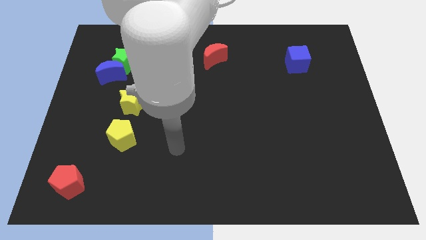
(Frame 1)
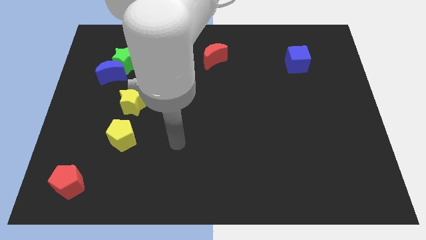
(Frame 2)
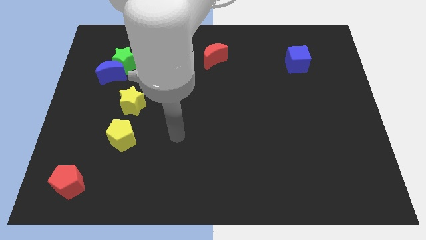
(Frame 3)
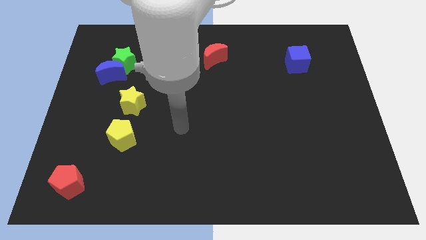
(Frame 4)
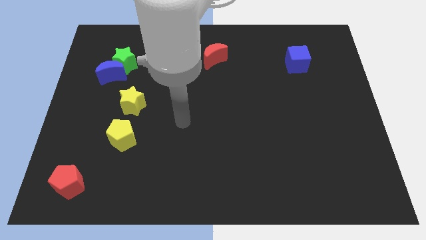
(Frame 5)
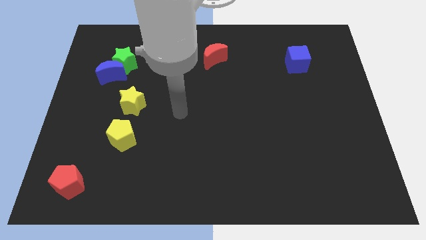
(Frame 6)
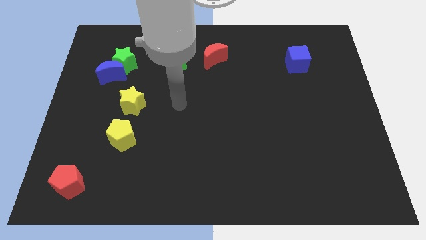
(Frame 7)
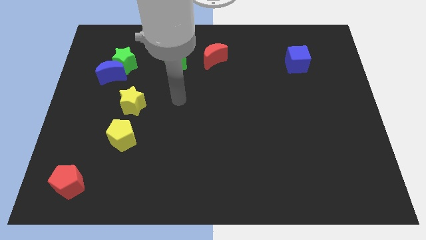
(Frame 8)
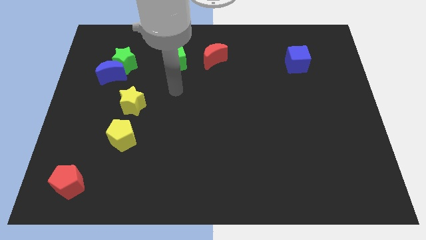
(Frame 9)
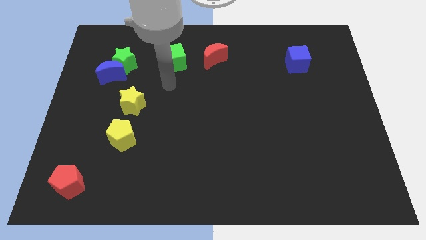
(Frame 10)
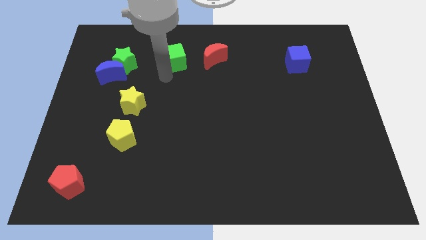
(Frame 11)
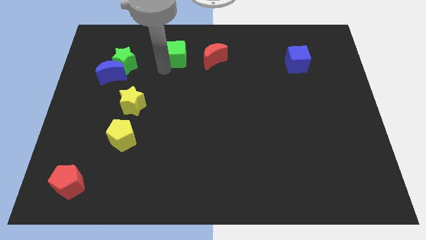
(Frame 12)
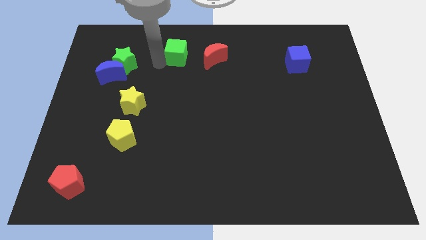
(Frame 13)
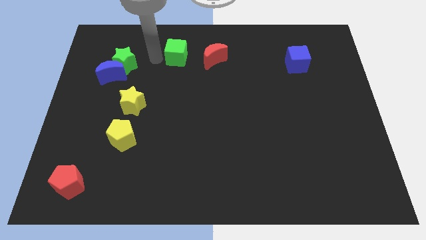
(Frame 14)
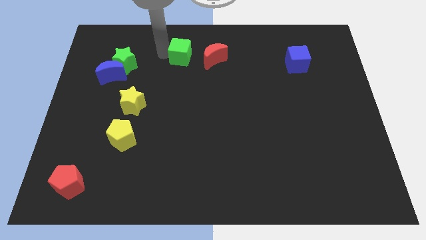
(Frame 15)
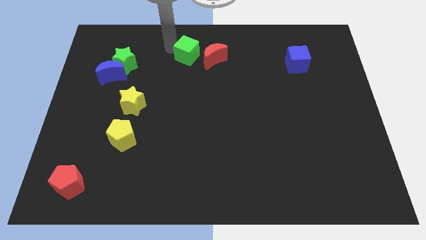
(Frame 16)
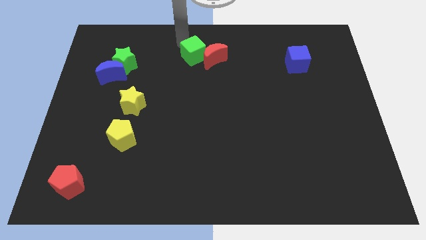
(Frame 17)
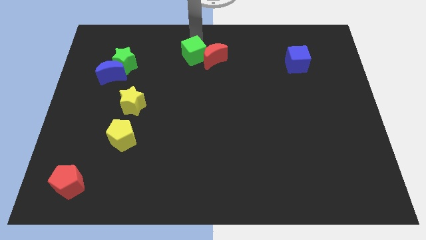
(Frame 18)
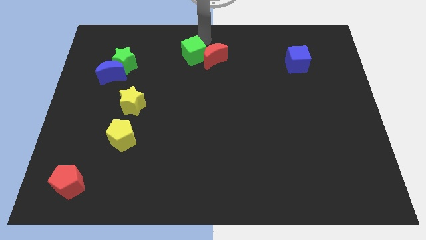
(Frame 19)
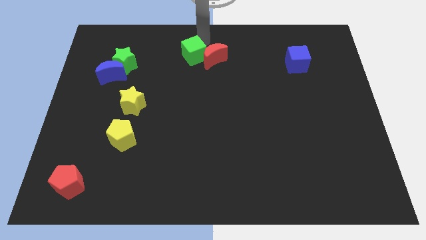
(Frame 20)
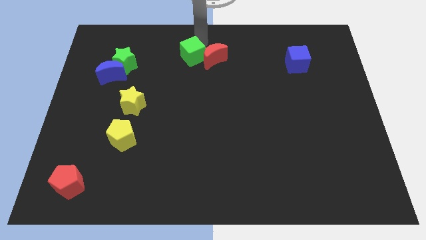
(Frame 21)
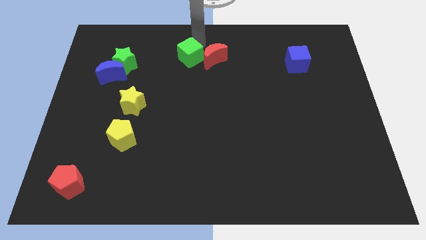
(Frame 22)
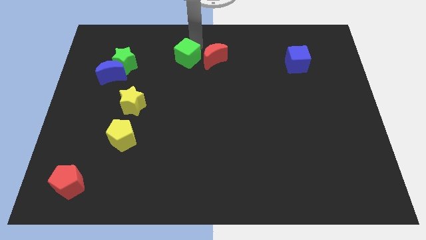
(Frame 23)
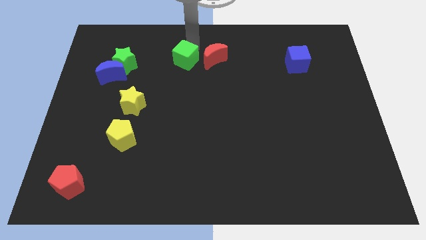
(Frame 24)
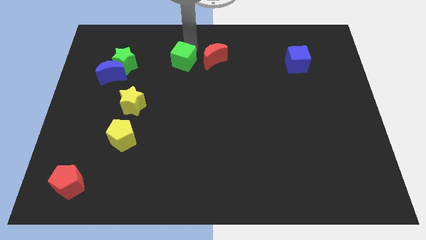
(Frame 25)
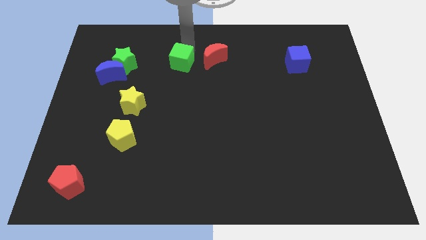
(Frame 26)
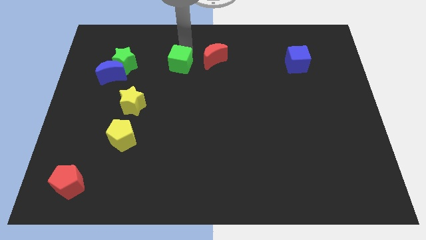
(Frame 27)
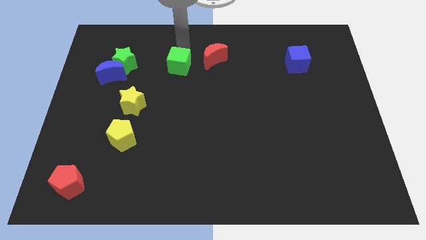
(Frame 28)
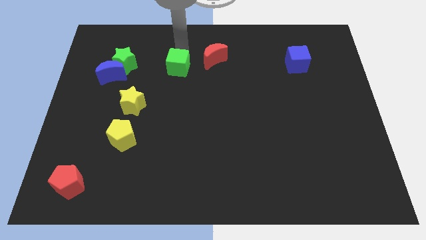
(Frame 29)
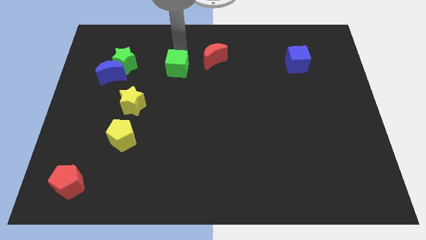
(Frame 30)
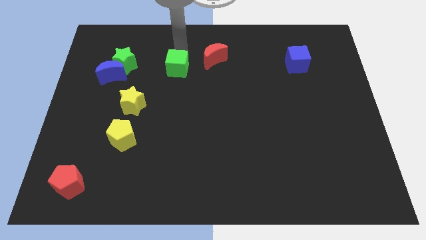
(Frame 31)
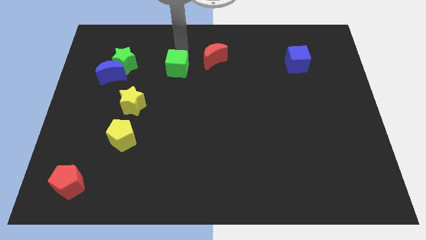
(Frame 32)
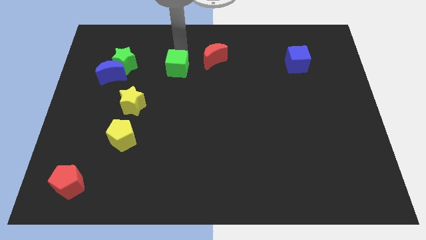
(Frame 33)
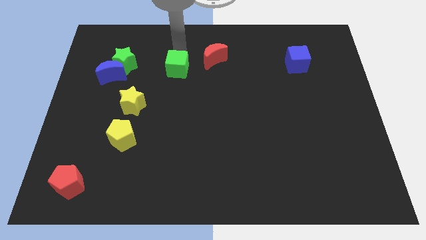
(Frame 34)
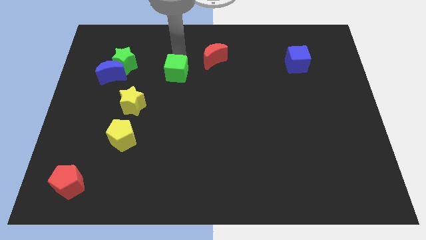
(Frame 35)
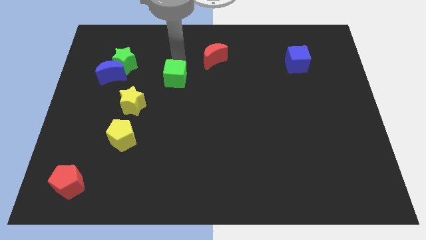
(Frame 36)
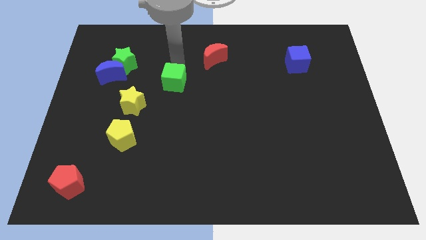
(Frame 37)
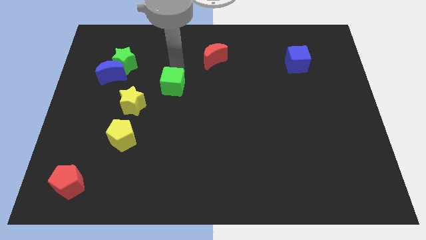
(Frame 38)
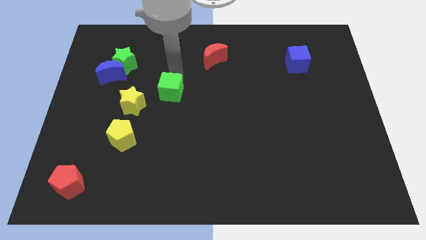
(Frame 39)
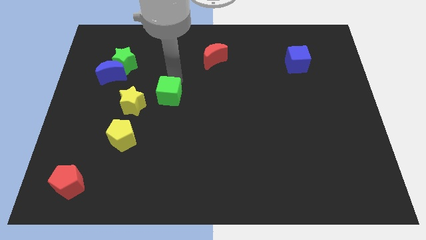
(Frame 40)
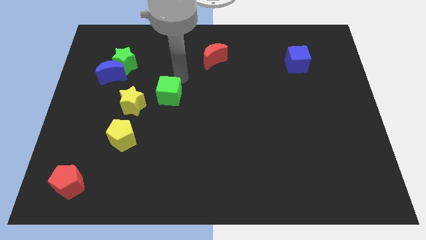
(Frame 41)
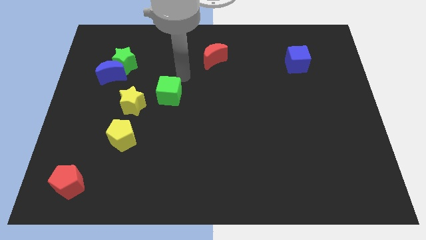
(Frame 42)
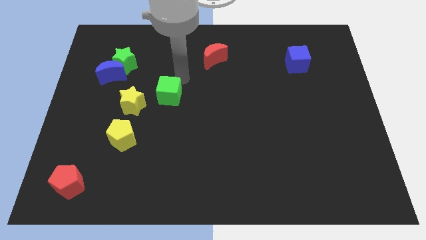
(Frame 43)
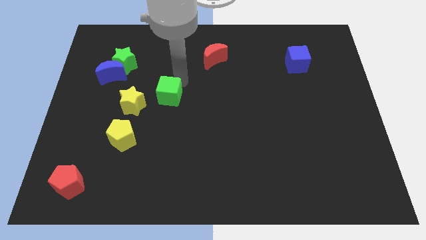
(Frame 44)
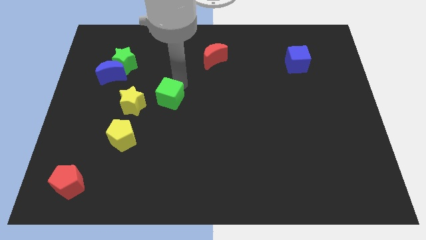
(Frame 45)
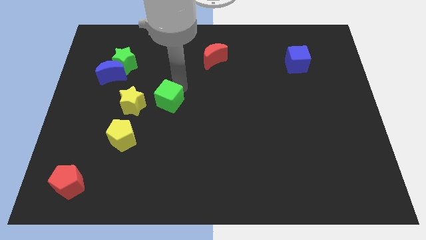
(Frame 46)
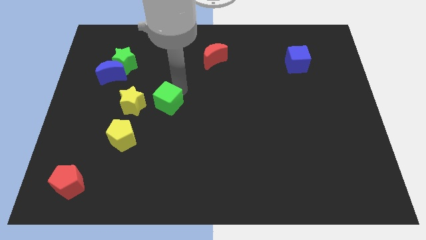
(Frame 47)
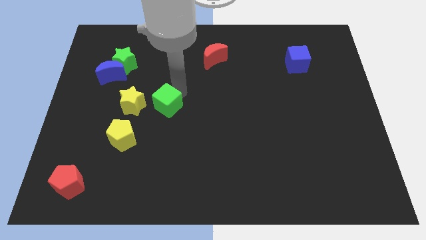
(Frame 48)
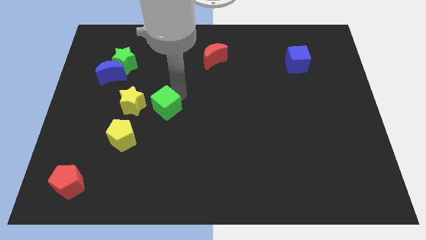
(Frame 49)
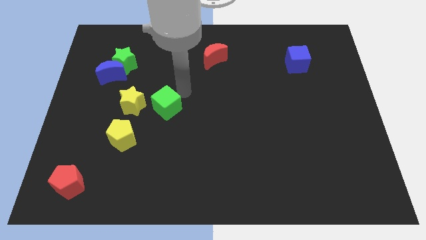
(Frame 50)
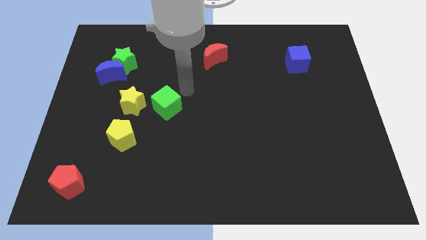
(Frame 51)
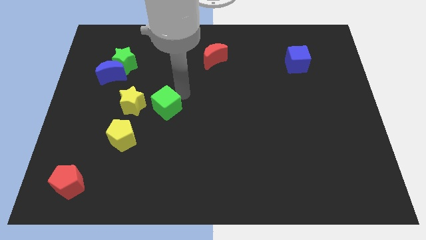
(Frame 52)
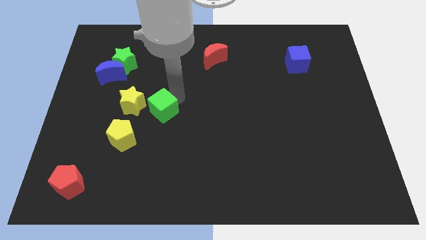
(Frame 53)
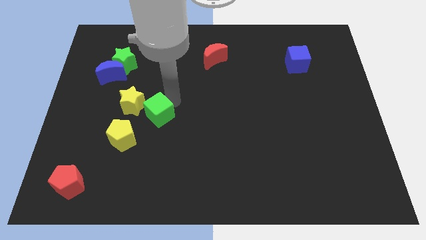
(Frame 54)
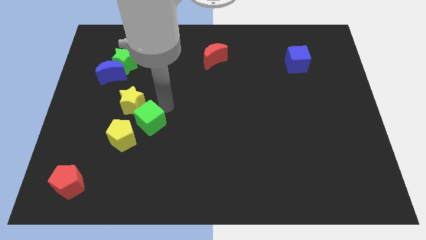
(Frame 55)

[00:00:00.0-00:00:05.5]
slide the green cube to the bottom side of the yellow star

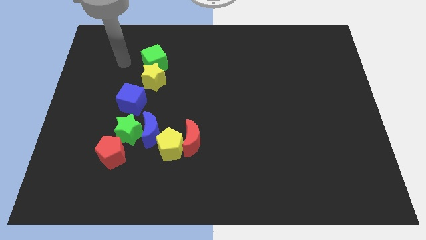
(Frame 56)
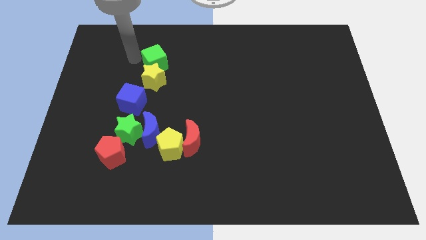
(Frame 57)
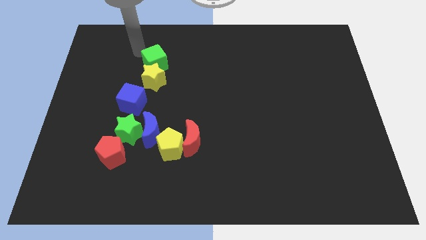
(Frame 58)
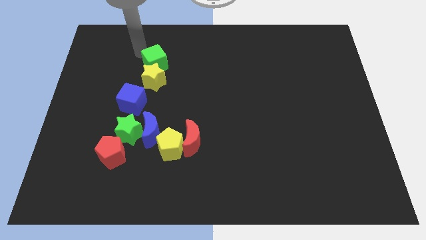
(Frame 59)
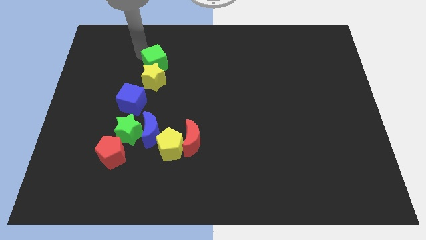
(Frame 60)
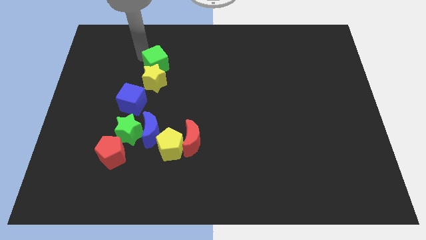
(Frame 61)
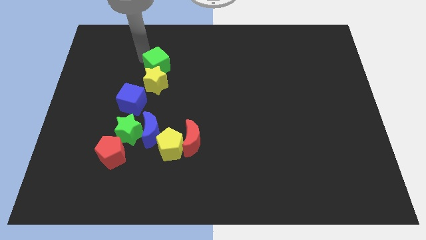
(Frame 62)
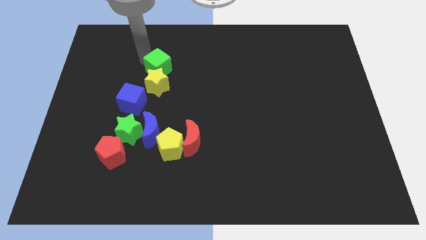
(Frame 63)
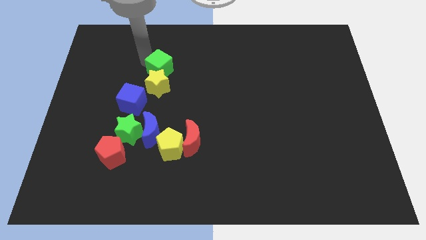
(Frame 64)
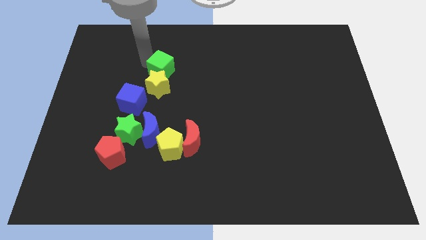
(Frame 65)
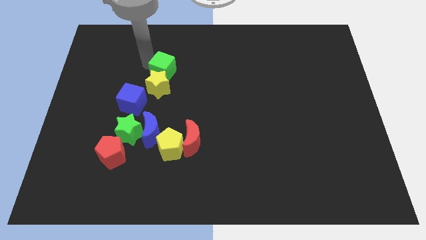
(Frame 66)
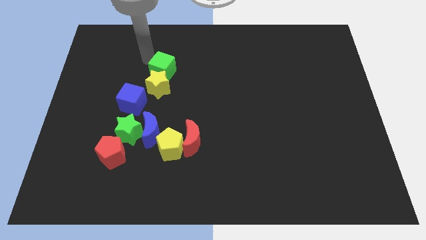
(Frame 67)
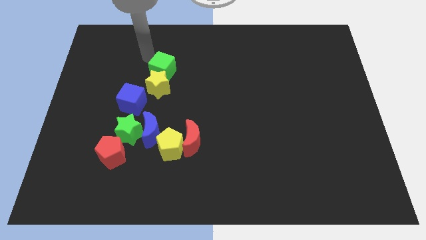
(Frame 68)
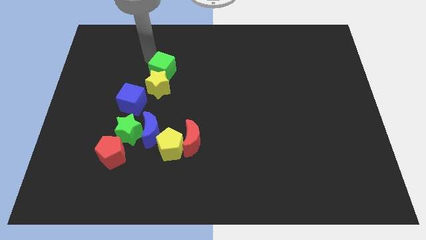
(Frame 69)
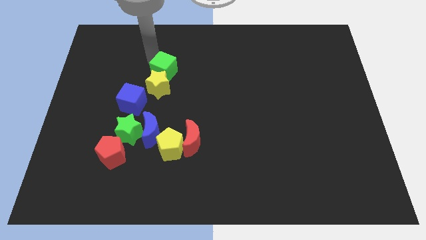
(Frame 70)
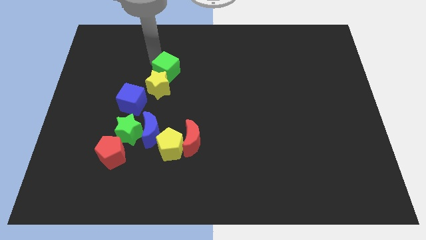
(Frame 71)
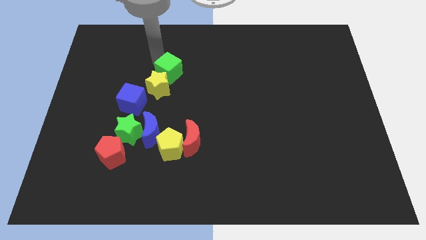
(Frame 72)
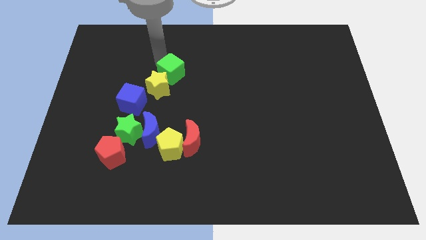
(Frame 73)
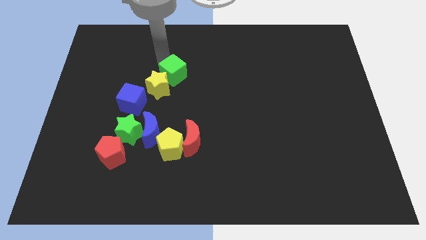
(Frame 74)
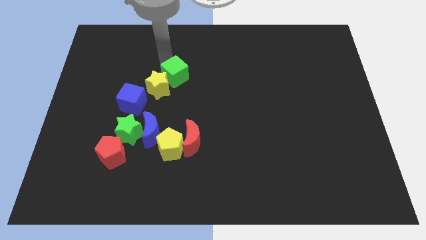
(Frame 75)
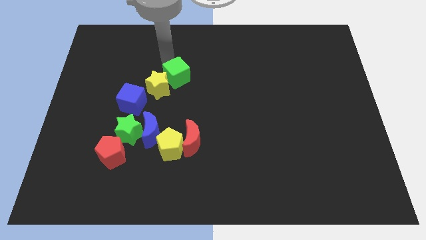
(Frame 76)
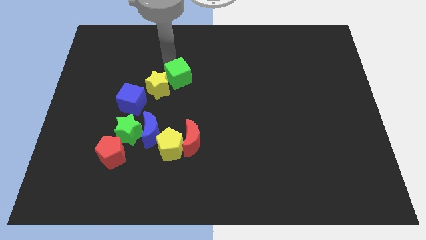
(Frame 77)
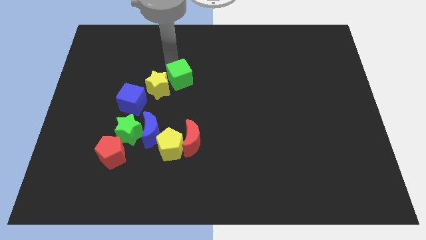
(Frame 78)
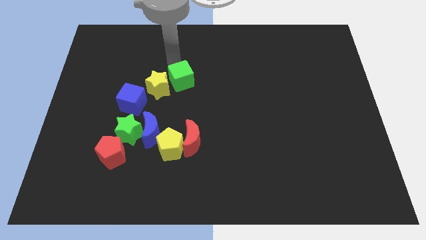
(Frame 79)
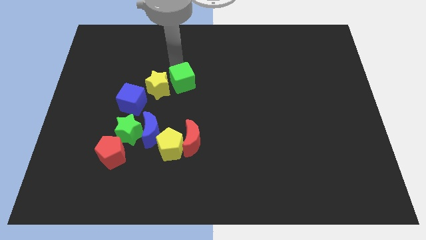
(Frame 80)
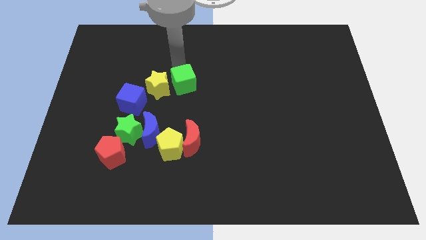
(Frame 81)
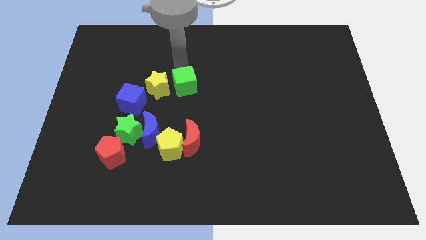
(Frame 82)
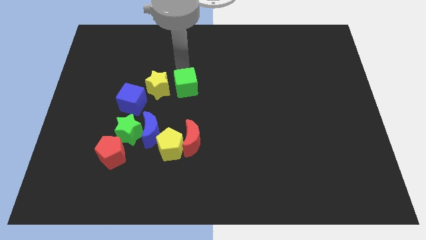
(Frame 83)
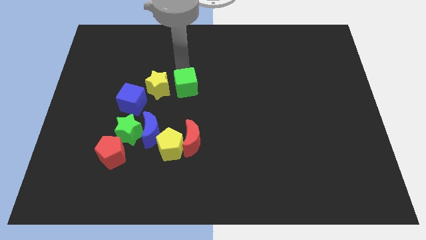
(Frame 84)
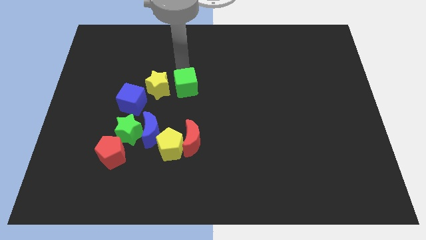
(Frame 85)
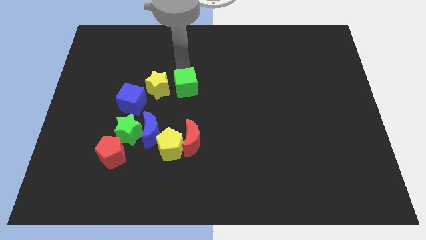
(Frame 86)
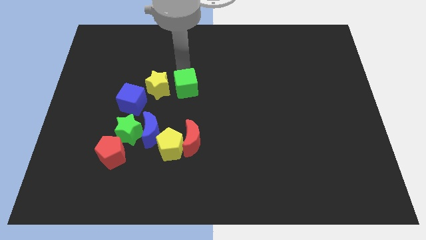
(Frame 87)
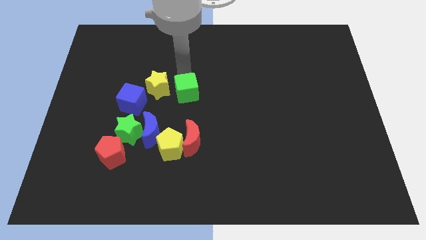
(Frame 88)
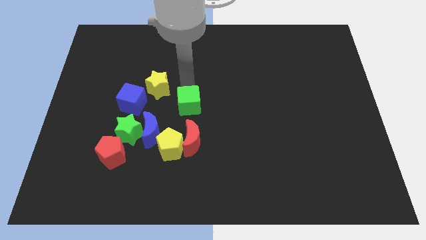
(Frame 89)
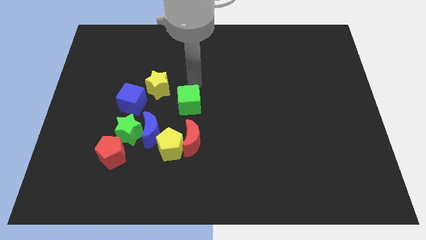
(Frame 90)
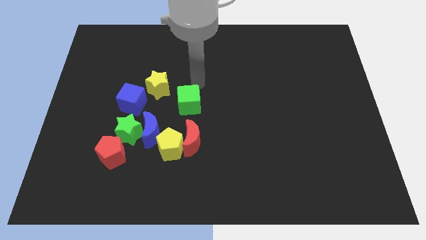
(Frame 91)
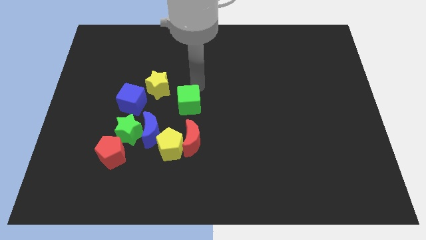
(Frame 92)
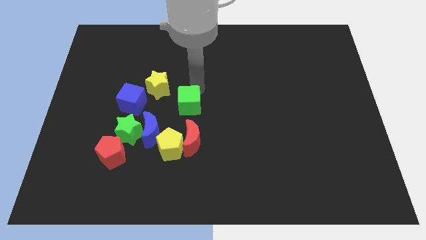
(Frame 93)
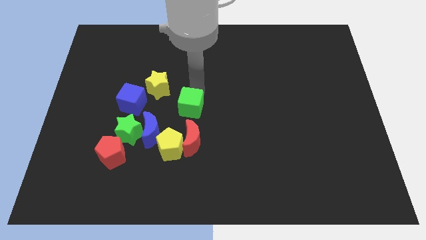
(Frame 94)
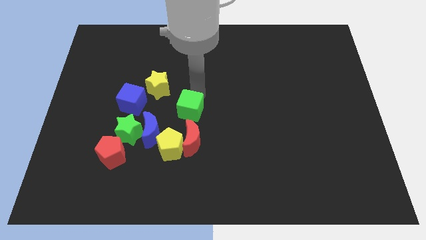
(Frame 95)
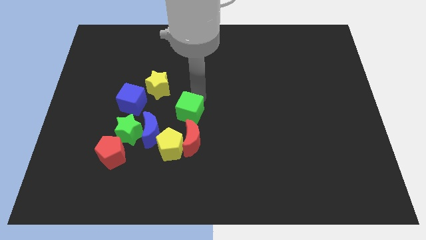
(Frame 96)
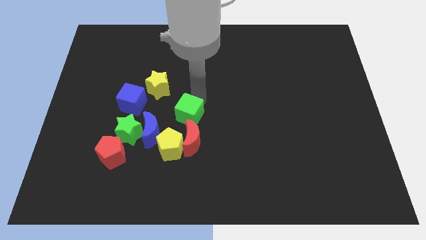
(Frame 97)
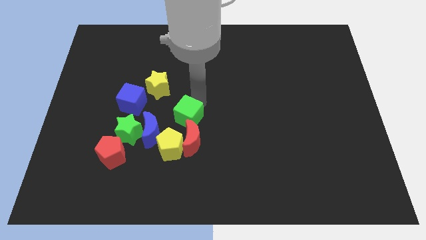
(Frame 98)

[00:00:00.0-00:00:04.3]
slide the green cube right of the green star
